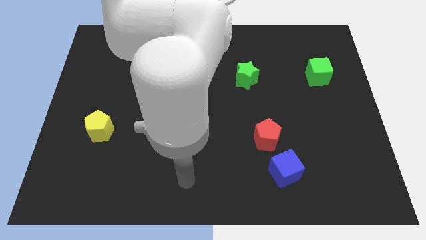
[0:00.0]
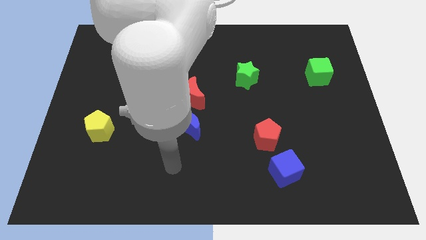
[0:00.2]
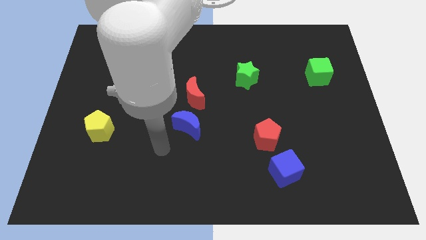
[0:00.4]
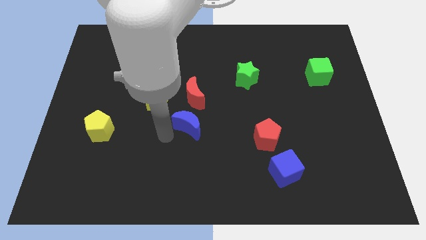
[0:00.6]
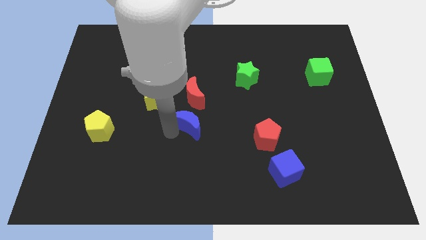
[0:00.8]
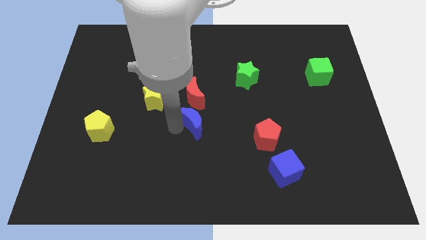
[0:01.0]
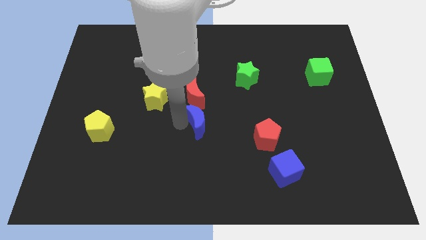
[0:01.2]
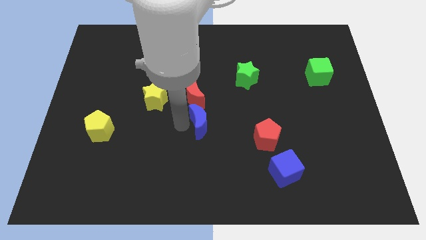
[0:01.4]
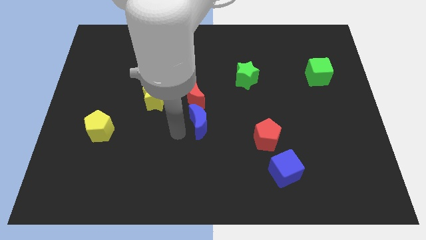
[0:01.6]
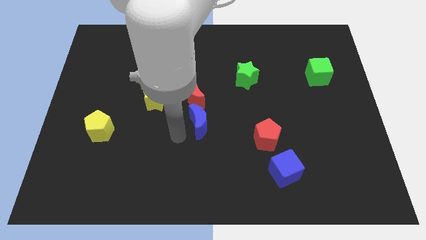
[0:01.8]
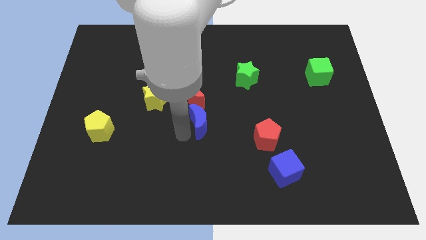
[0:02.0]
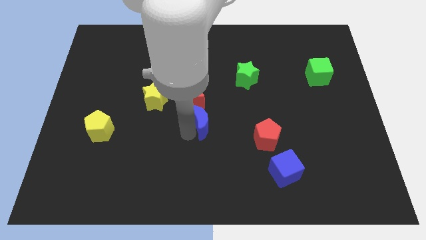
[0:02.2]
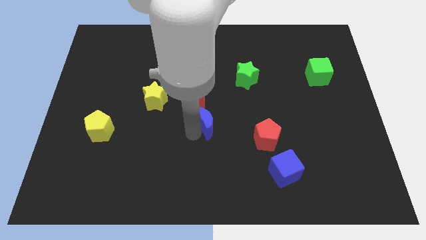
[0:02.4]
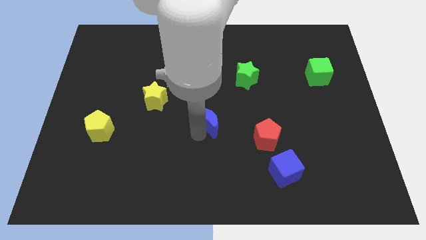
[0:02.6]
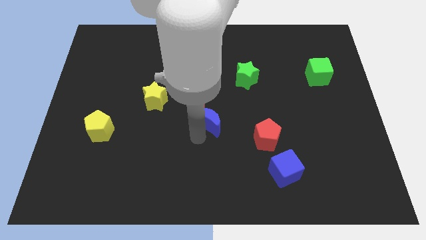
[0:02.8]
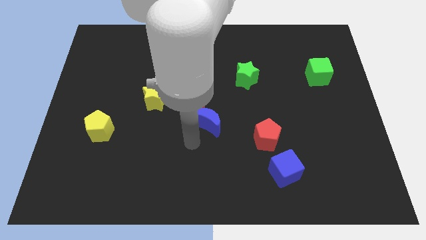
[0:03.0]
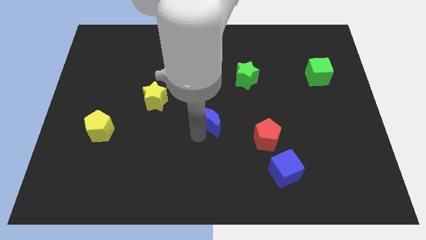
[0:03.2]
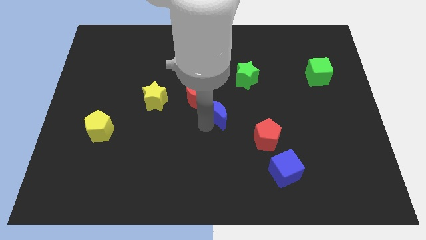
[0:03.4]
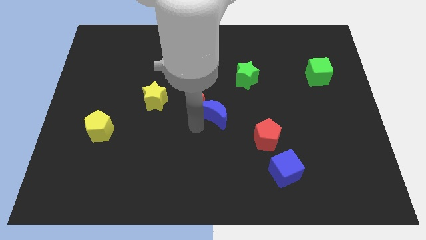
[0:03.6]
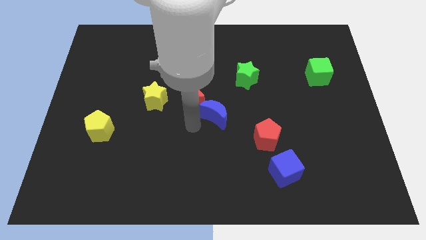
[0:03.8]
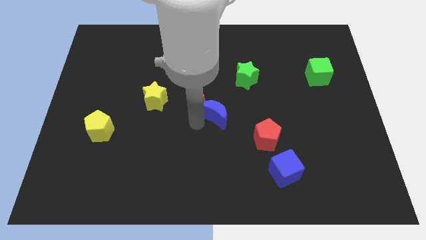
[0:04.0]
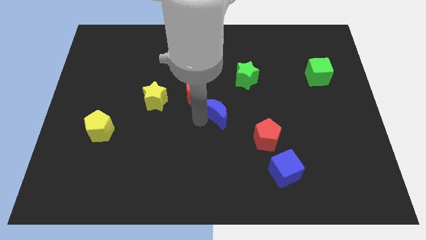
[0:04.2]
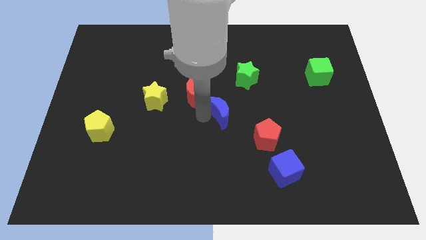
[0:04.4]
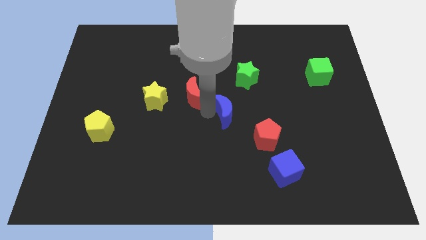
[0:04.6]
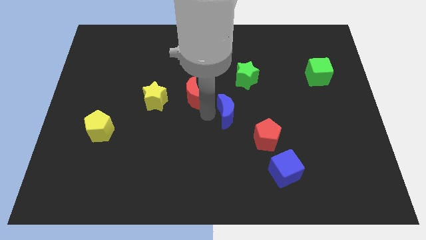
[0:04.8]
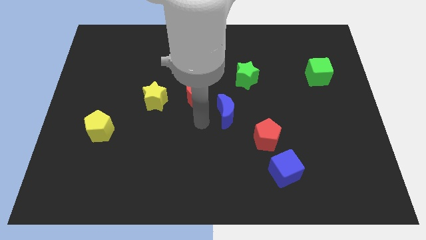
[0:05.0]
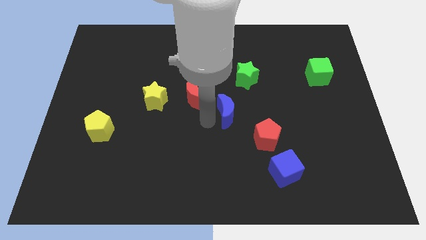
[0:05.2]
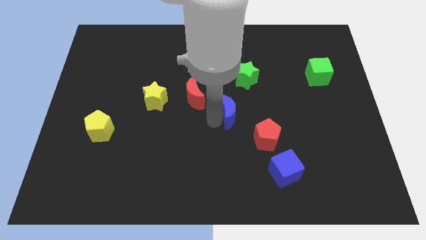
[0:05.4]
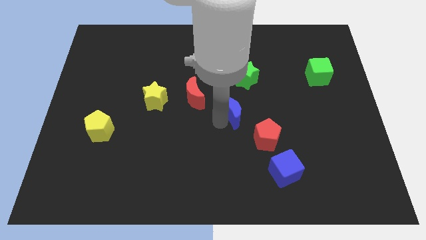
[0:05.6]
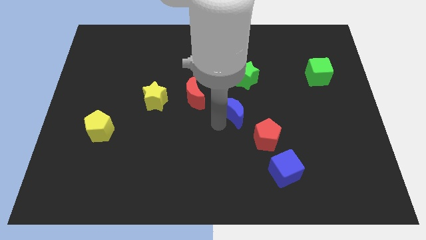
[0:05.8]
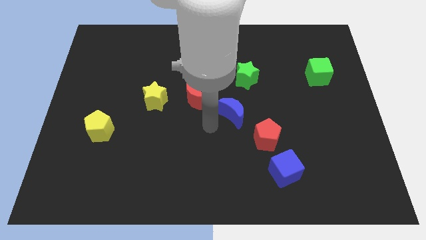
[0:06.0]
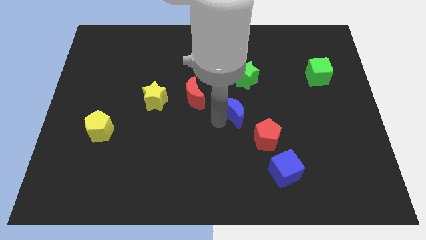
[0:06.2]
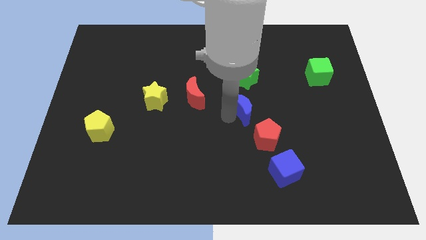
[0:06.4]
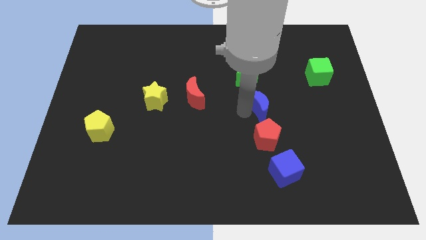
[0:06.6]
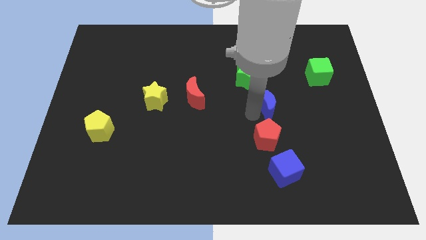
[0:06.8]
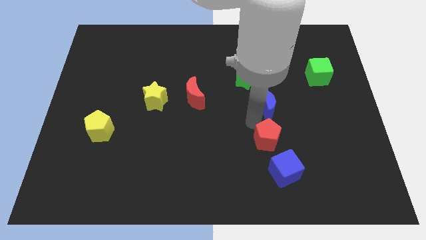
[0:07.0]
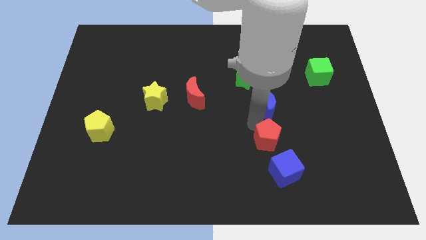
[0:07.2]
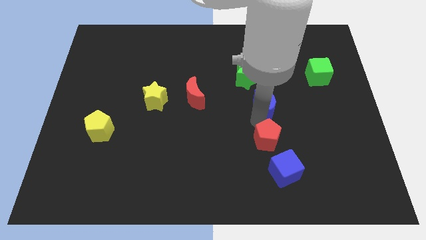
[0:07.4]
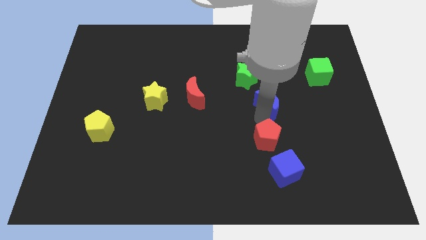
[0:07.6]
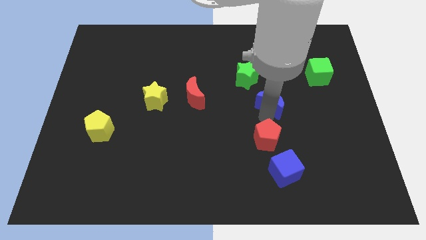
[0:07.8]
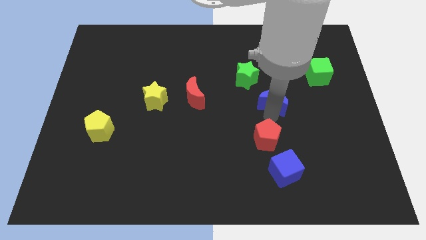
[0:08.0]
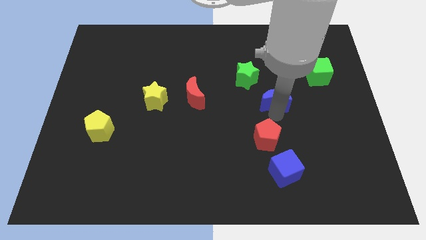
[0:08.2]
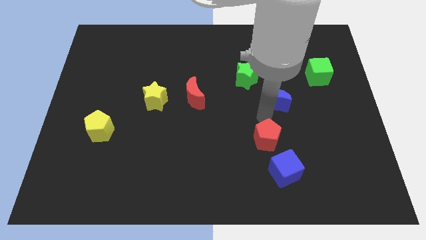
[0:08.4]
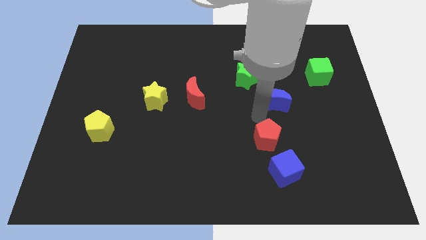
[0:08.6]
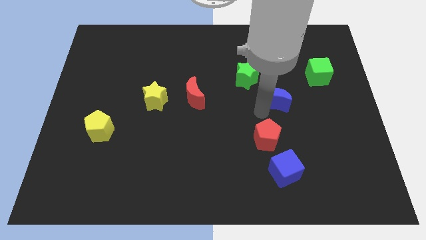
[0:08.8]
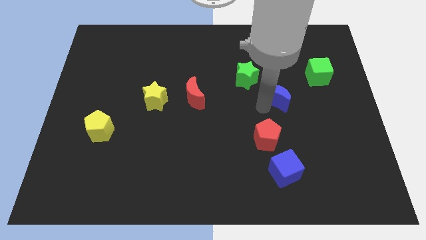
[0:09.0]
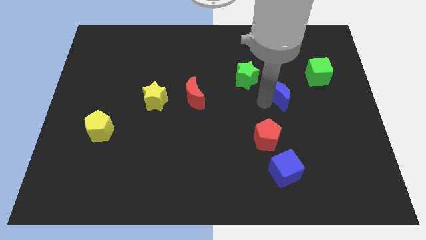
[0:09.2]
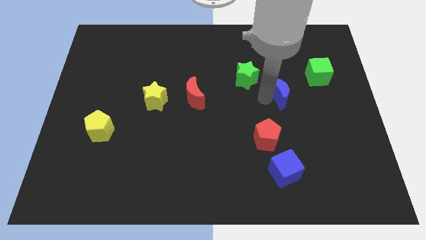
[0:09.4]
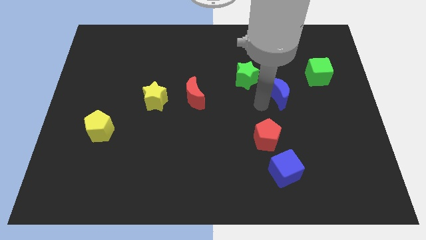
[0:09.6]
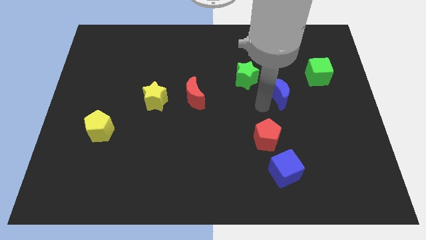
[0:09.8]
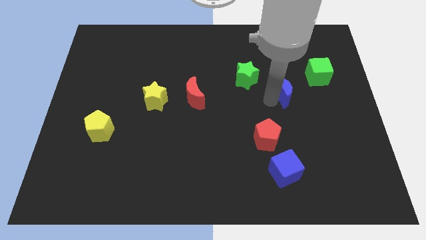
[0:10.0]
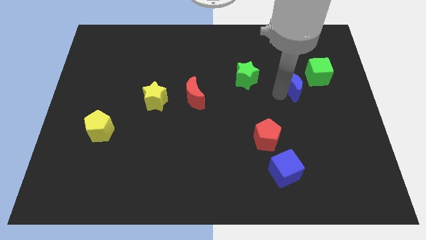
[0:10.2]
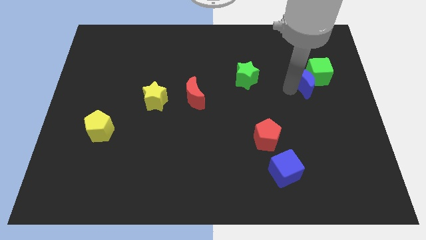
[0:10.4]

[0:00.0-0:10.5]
put the blue moon towards the green cube

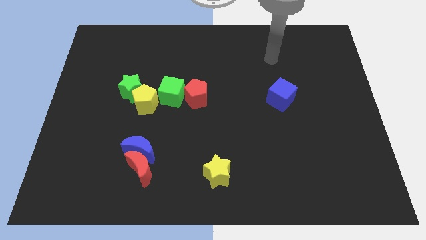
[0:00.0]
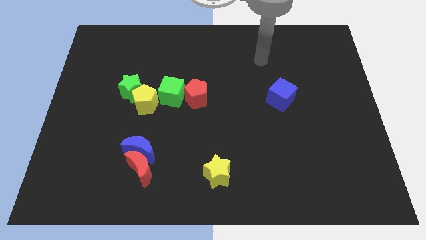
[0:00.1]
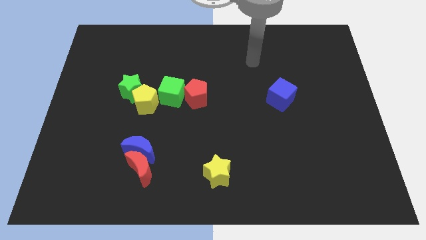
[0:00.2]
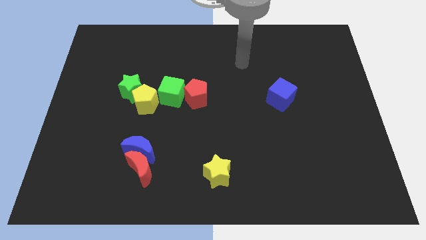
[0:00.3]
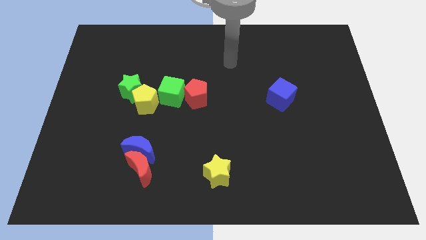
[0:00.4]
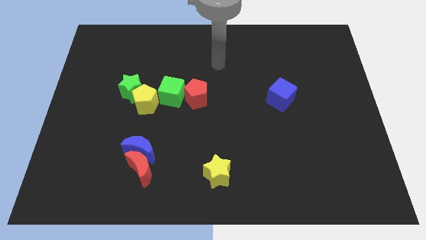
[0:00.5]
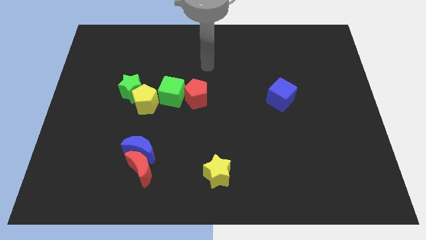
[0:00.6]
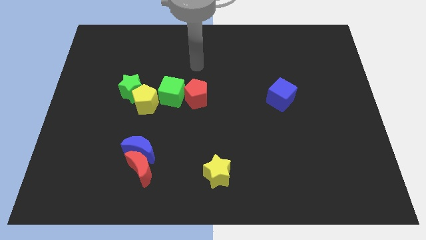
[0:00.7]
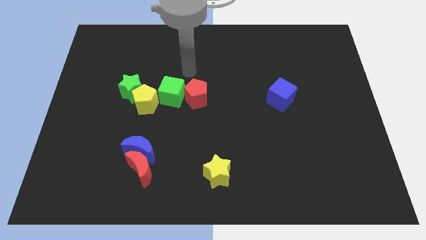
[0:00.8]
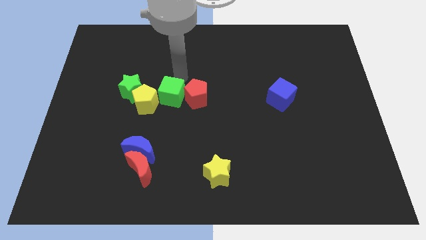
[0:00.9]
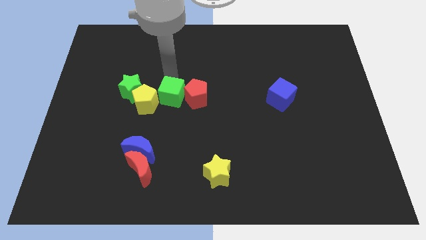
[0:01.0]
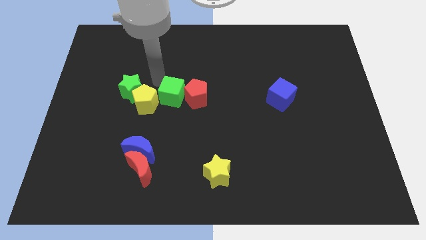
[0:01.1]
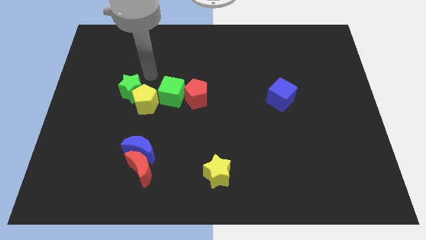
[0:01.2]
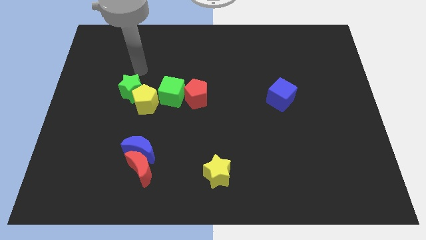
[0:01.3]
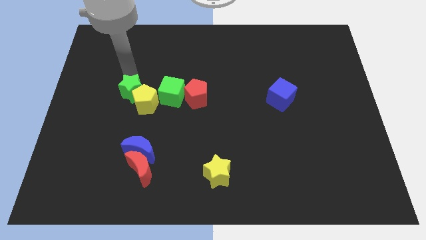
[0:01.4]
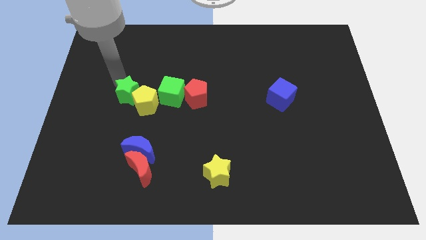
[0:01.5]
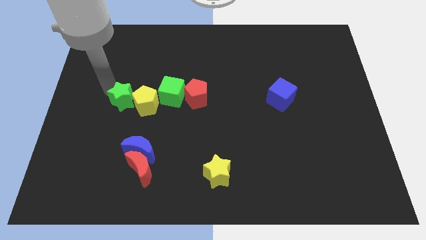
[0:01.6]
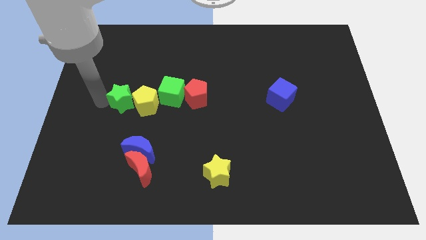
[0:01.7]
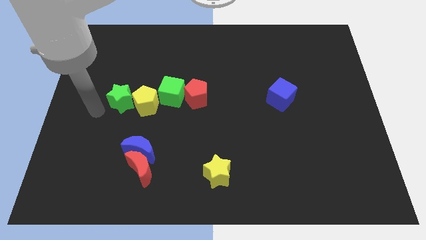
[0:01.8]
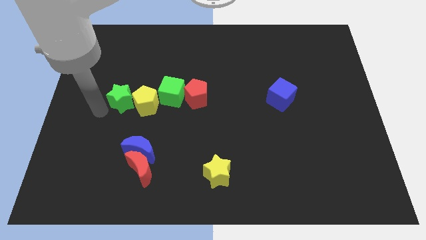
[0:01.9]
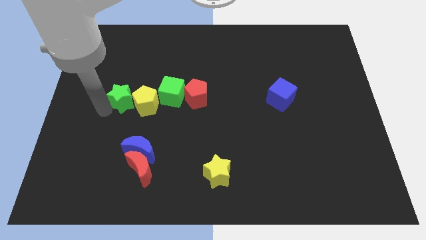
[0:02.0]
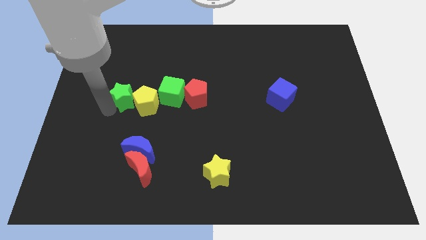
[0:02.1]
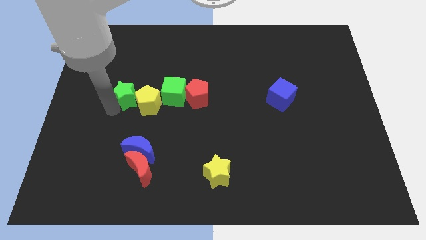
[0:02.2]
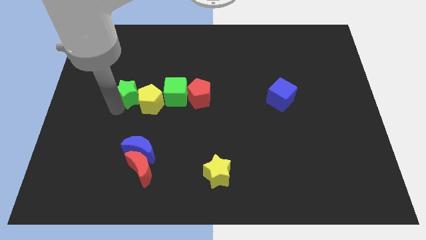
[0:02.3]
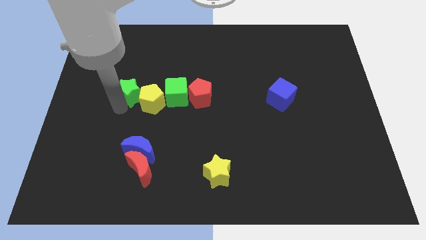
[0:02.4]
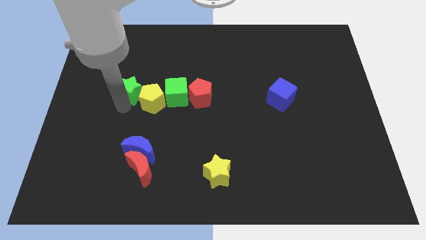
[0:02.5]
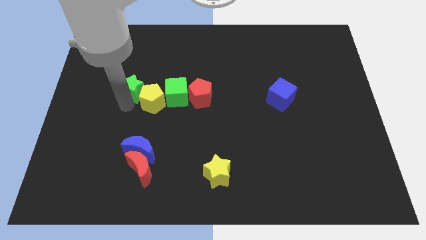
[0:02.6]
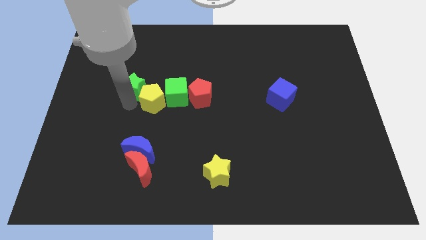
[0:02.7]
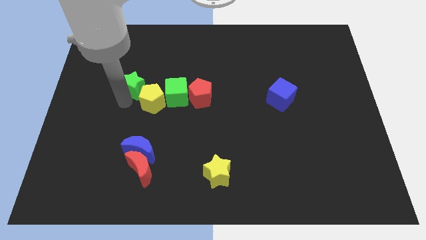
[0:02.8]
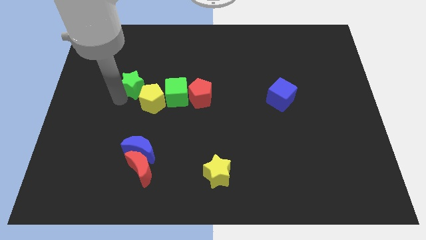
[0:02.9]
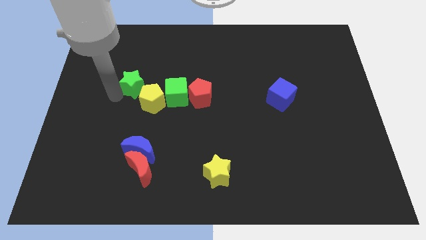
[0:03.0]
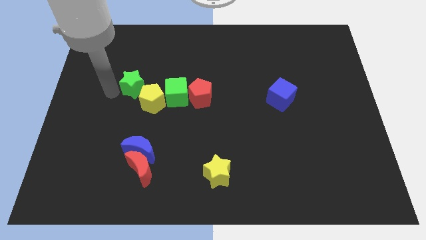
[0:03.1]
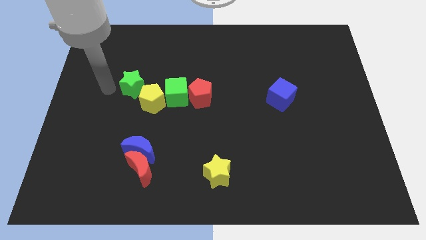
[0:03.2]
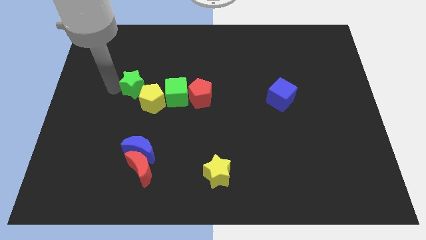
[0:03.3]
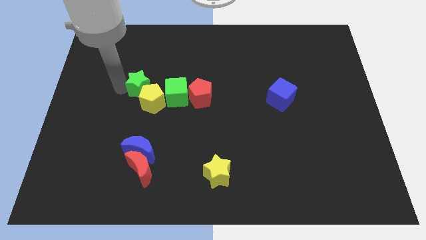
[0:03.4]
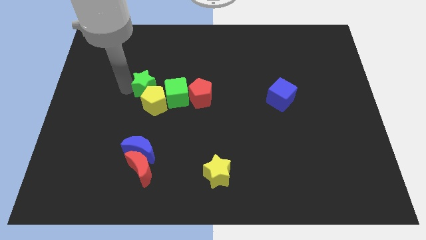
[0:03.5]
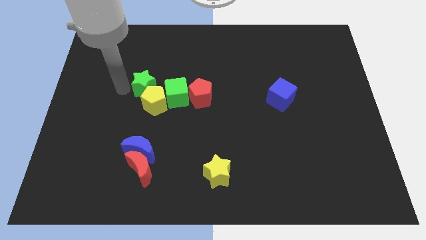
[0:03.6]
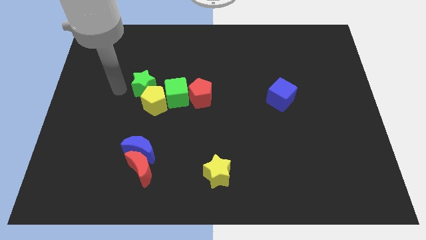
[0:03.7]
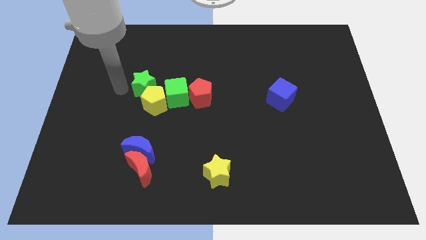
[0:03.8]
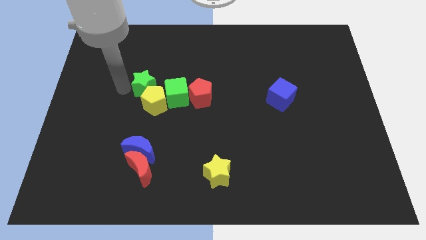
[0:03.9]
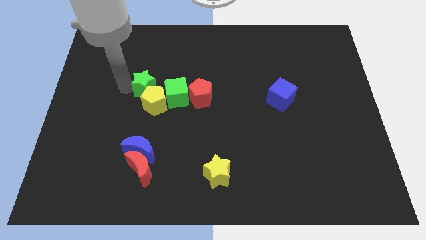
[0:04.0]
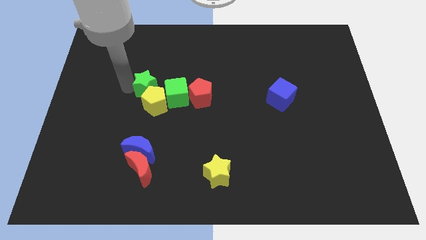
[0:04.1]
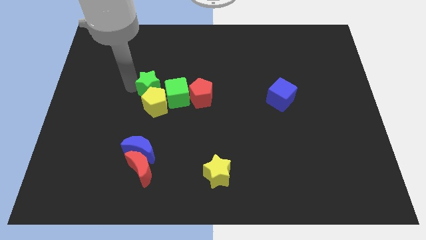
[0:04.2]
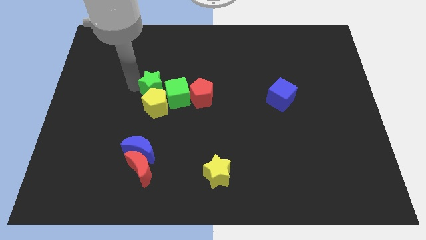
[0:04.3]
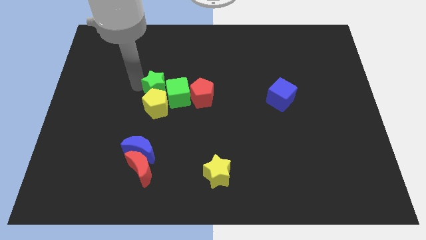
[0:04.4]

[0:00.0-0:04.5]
push the green star next to the green cube
